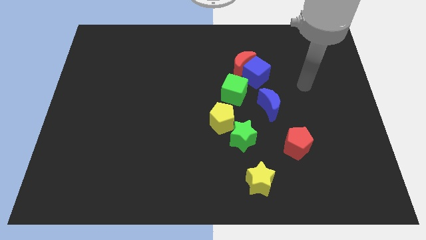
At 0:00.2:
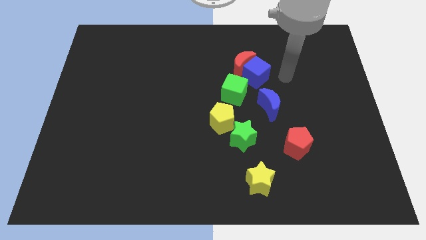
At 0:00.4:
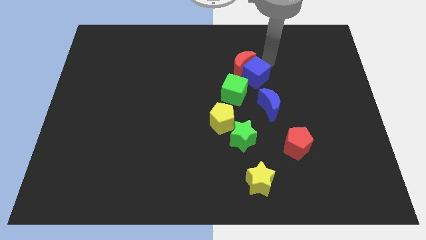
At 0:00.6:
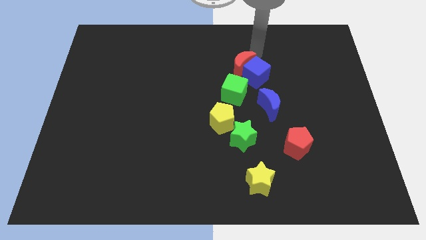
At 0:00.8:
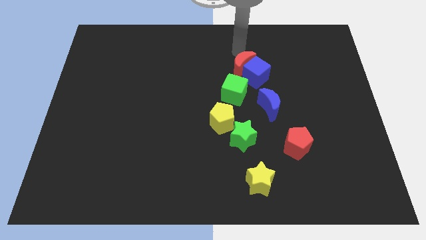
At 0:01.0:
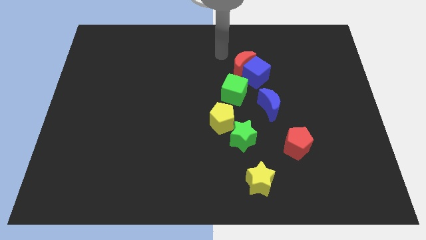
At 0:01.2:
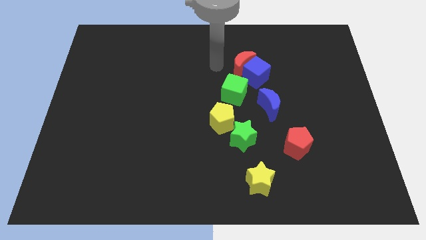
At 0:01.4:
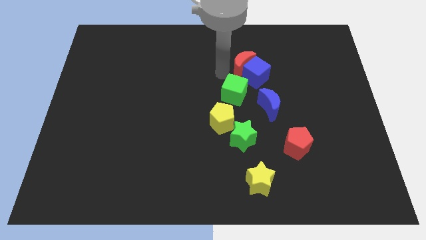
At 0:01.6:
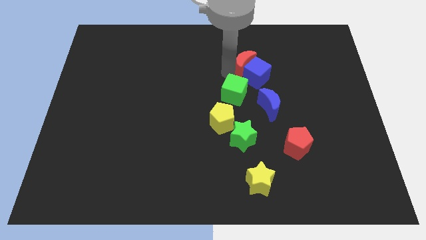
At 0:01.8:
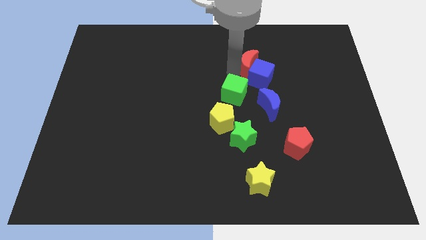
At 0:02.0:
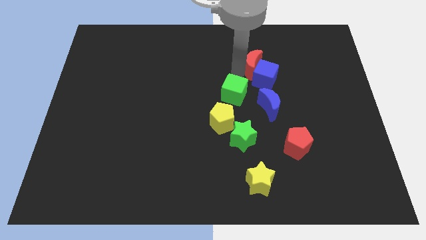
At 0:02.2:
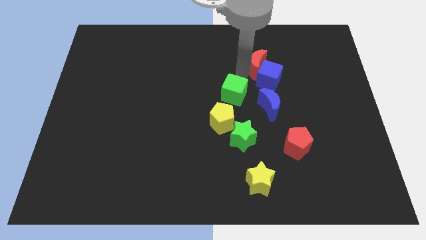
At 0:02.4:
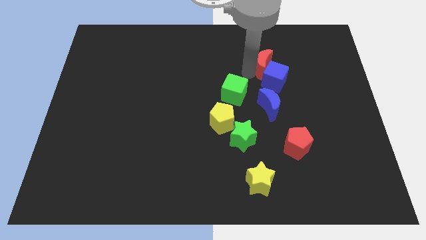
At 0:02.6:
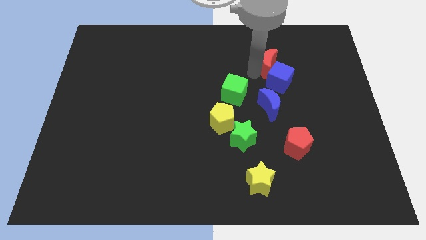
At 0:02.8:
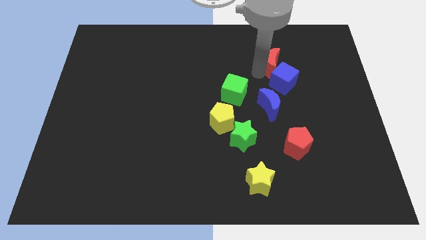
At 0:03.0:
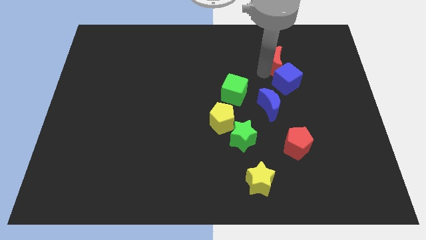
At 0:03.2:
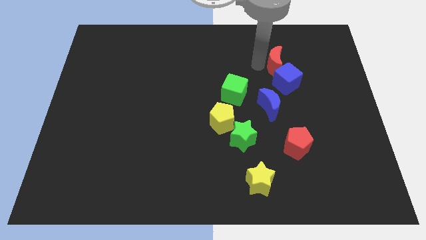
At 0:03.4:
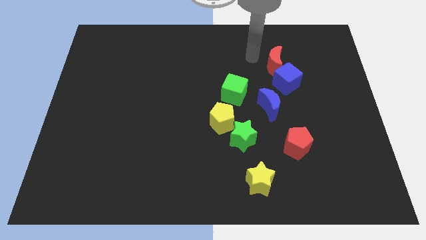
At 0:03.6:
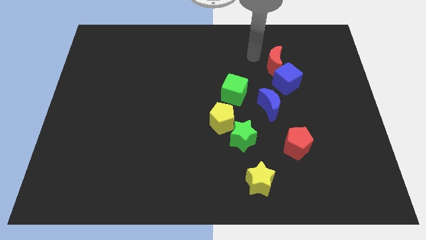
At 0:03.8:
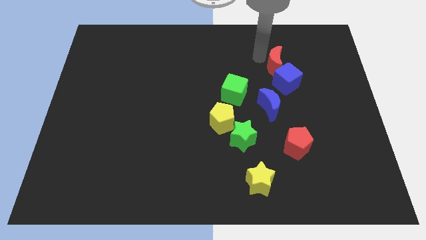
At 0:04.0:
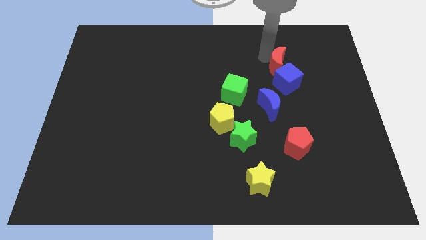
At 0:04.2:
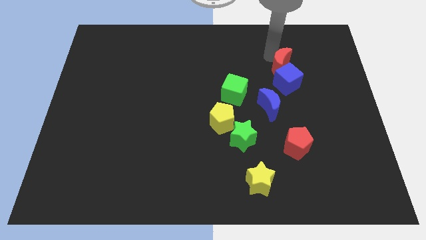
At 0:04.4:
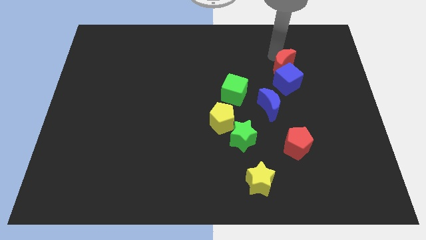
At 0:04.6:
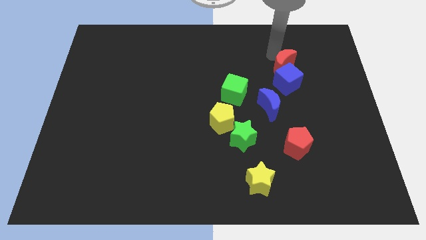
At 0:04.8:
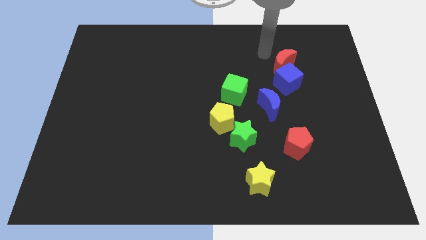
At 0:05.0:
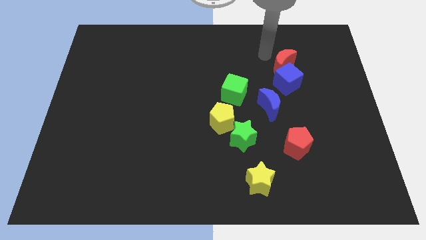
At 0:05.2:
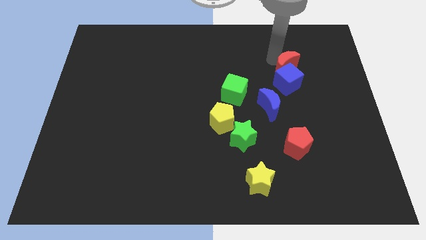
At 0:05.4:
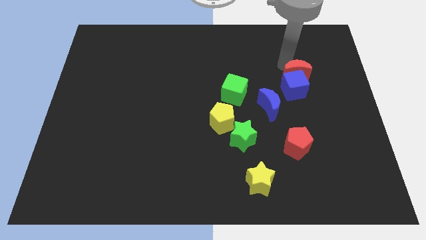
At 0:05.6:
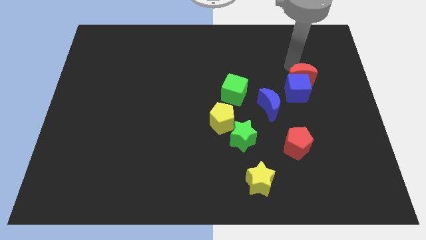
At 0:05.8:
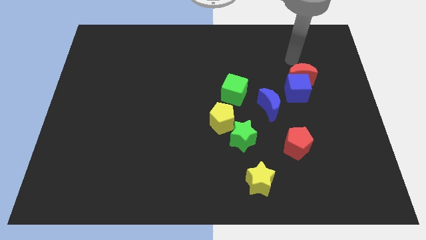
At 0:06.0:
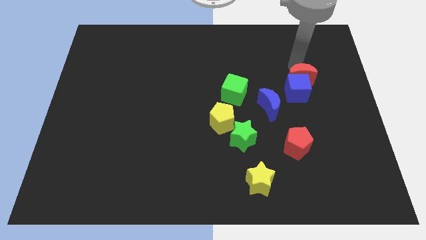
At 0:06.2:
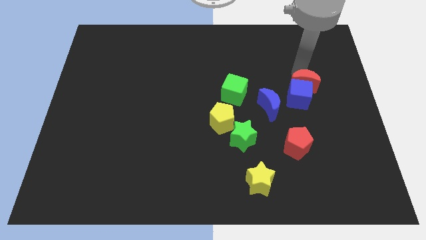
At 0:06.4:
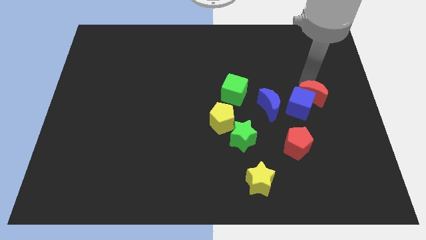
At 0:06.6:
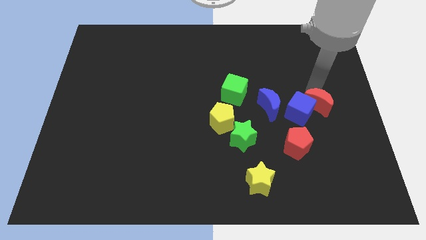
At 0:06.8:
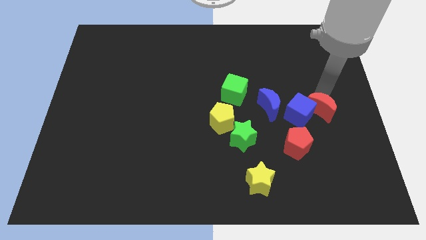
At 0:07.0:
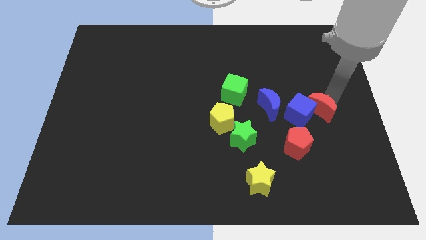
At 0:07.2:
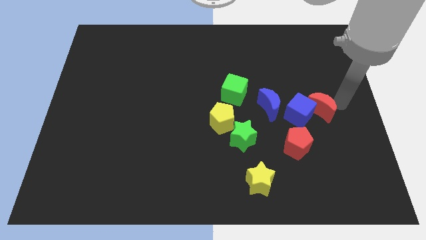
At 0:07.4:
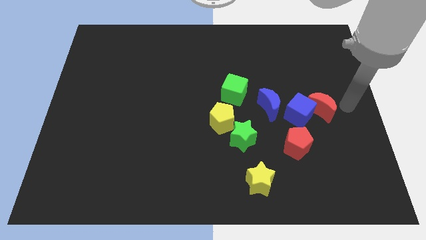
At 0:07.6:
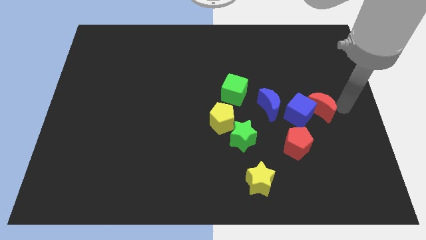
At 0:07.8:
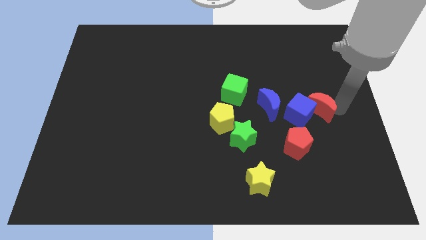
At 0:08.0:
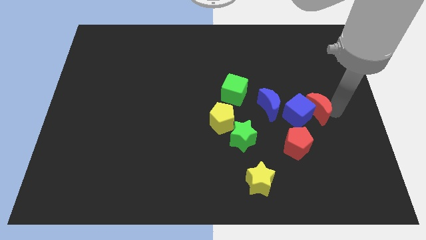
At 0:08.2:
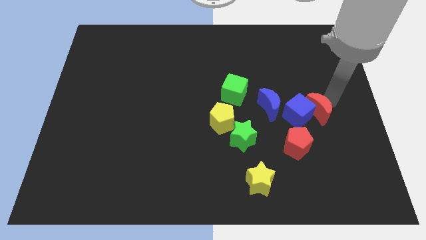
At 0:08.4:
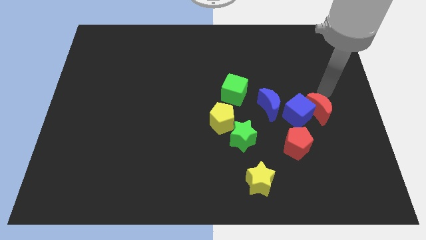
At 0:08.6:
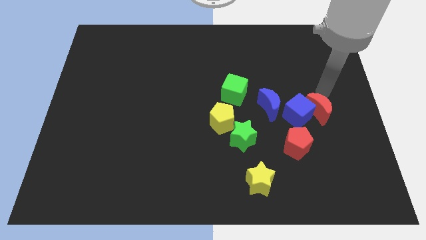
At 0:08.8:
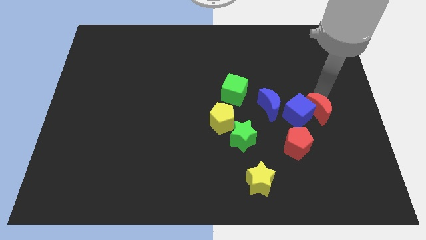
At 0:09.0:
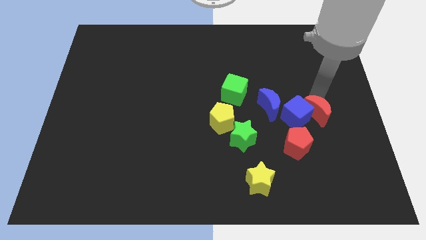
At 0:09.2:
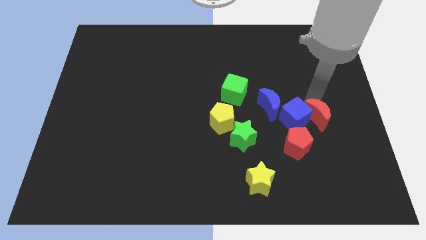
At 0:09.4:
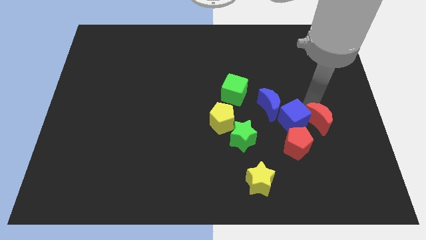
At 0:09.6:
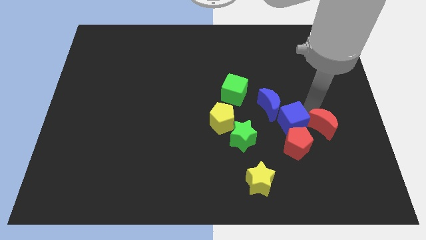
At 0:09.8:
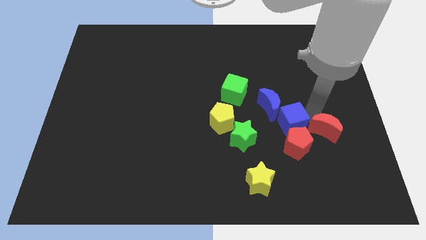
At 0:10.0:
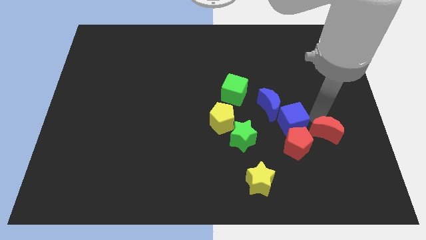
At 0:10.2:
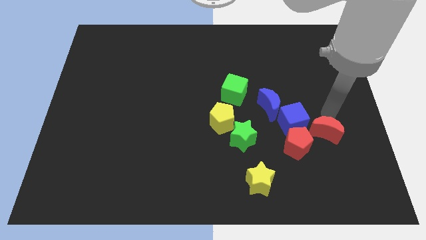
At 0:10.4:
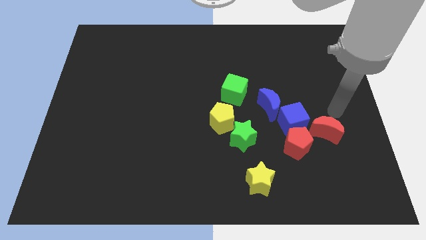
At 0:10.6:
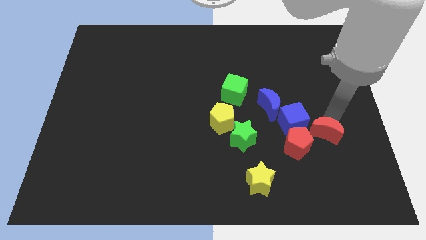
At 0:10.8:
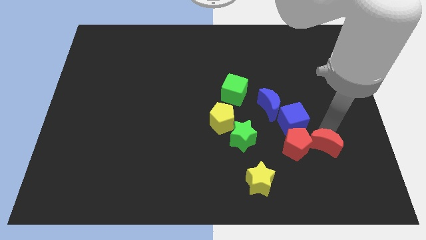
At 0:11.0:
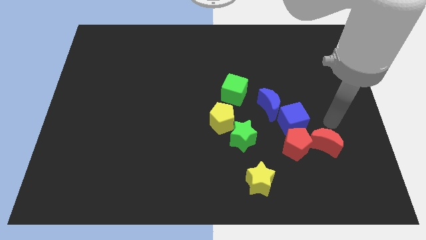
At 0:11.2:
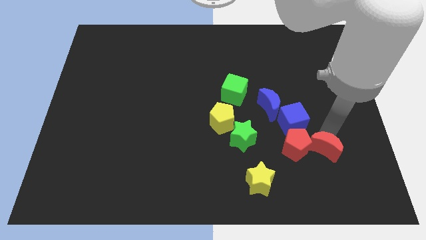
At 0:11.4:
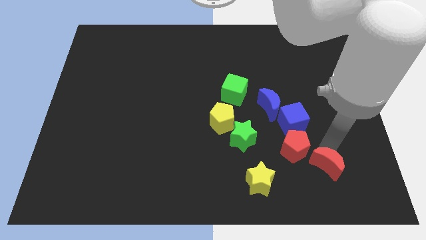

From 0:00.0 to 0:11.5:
slide the red moon right of the yellow star

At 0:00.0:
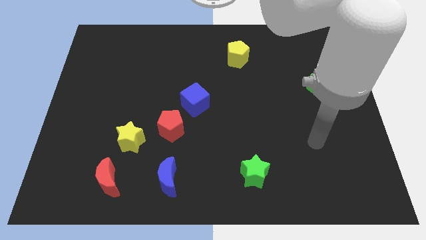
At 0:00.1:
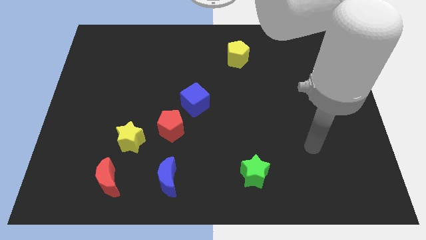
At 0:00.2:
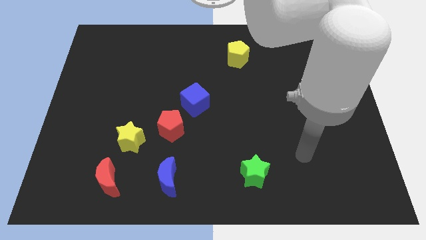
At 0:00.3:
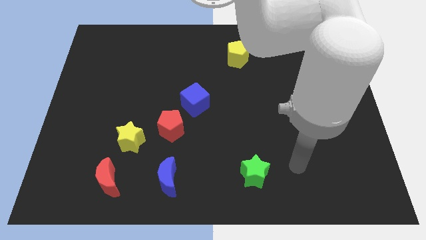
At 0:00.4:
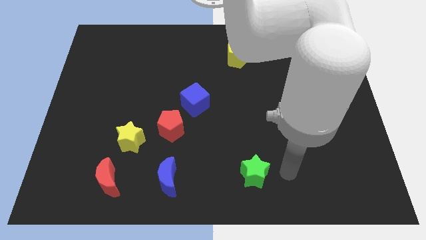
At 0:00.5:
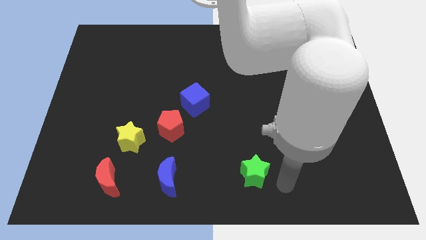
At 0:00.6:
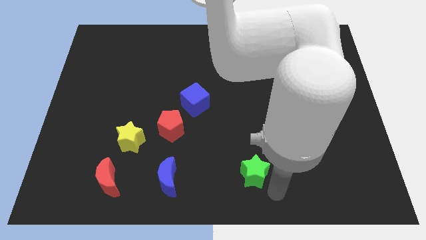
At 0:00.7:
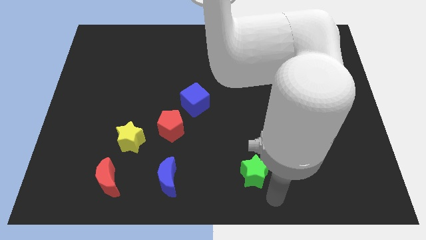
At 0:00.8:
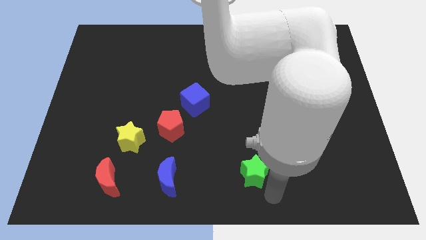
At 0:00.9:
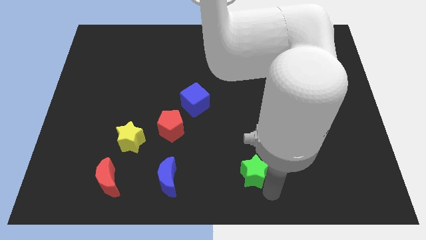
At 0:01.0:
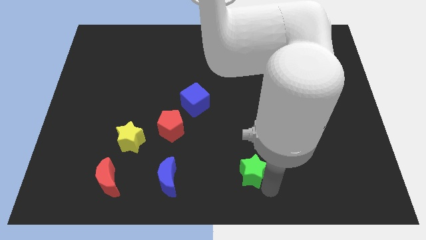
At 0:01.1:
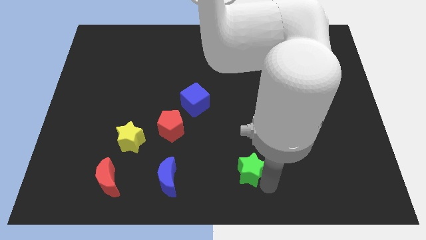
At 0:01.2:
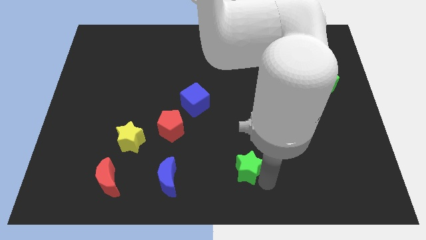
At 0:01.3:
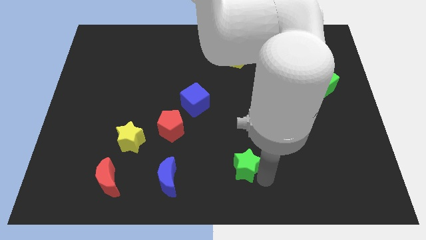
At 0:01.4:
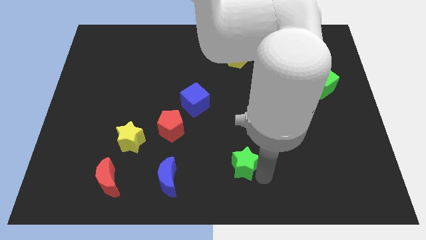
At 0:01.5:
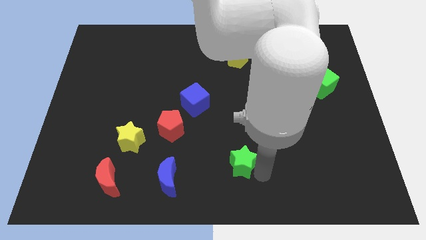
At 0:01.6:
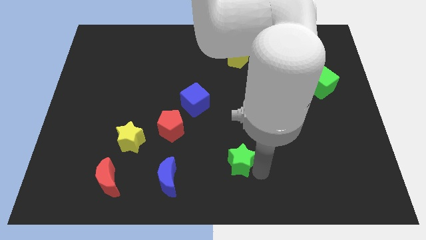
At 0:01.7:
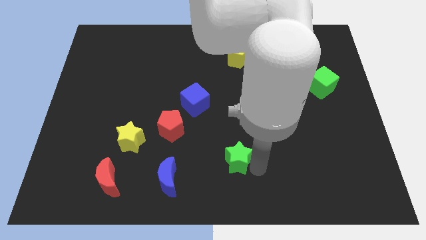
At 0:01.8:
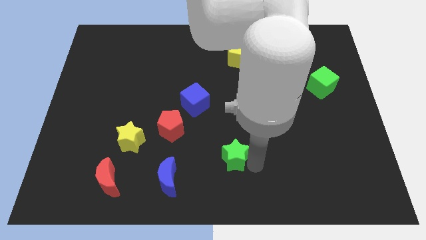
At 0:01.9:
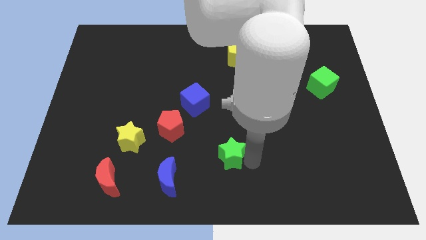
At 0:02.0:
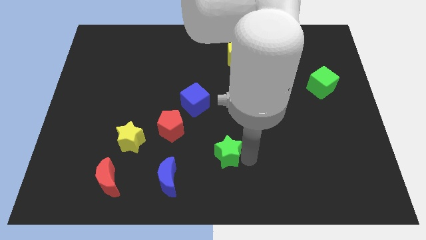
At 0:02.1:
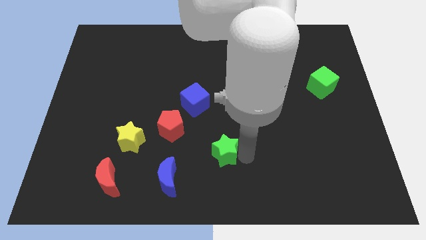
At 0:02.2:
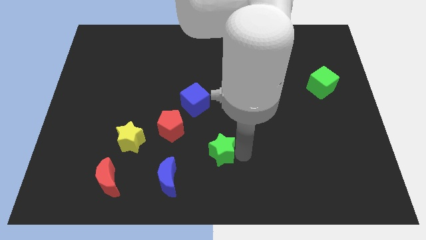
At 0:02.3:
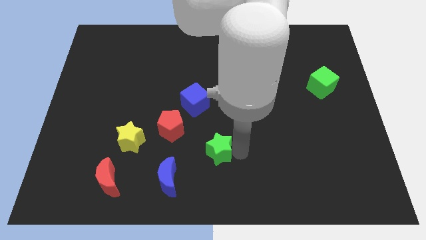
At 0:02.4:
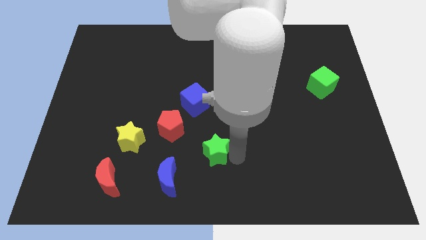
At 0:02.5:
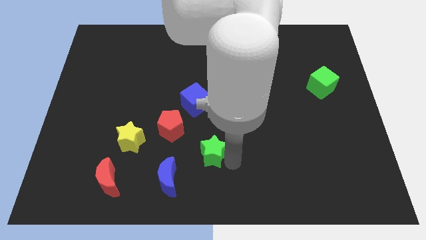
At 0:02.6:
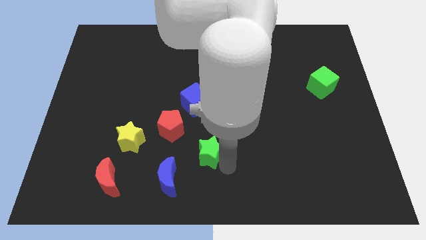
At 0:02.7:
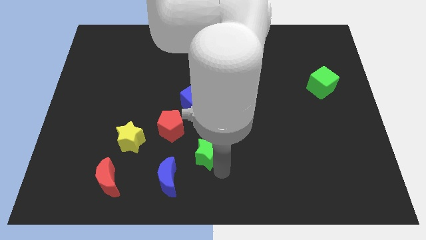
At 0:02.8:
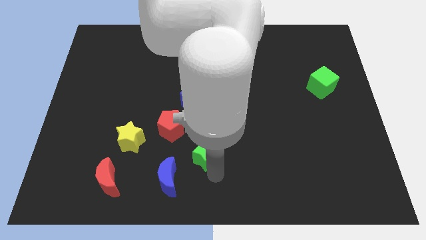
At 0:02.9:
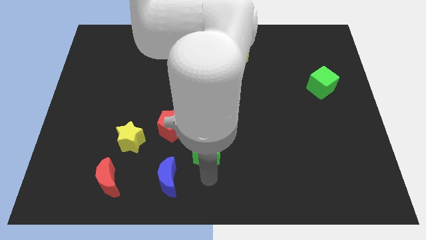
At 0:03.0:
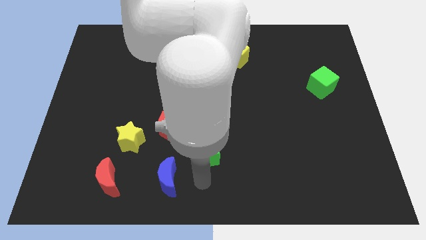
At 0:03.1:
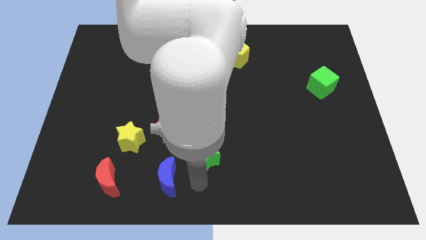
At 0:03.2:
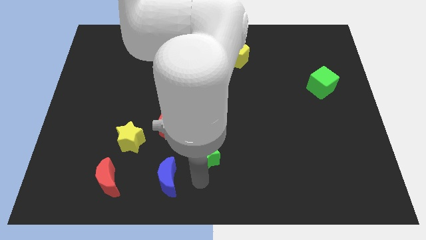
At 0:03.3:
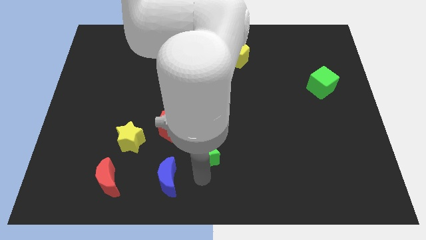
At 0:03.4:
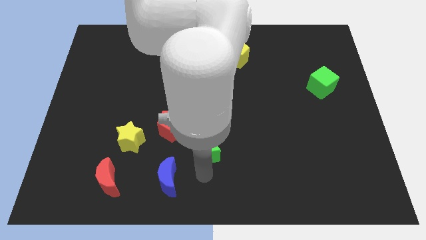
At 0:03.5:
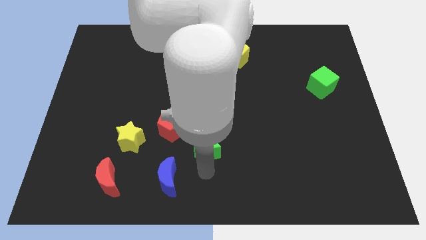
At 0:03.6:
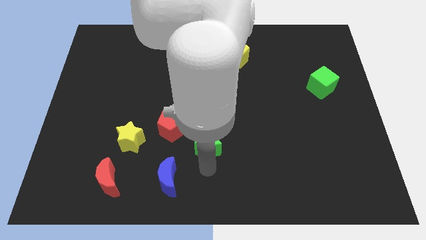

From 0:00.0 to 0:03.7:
put the green star right of the red pentagon
